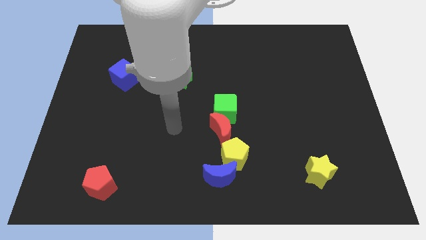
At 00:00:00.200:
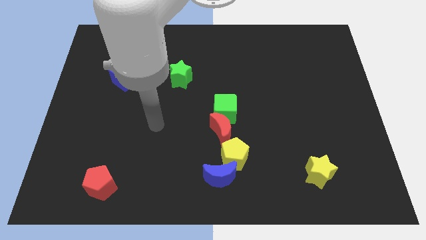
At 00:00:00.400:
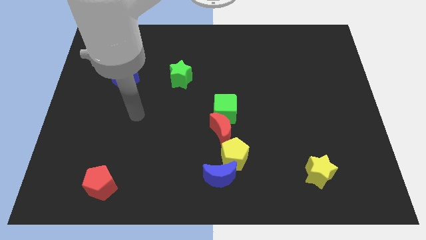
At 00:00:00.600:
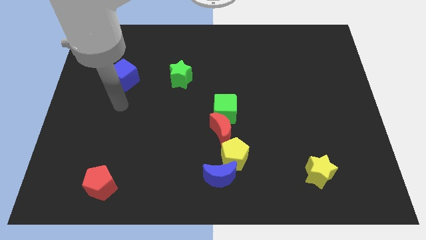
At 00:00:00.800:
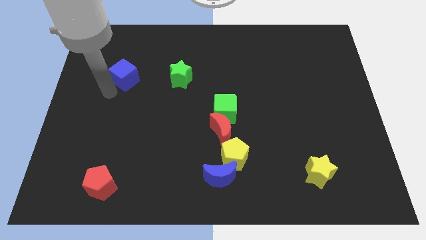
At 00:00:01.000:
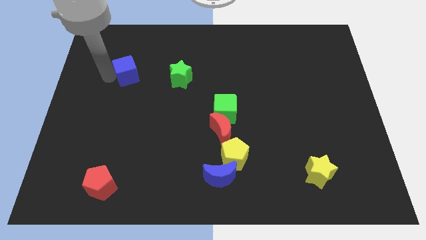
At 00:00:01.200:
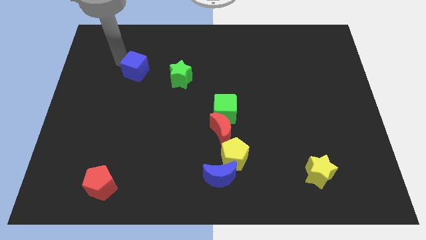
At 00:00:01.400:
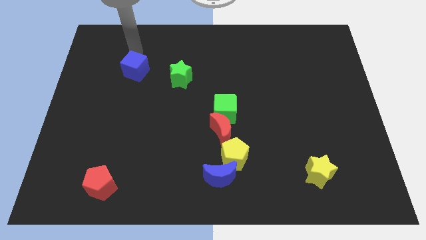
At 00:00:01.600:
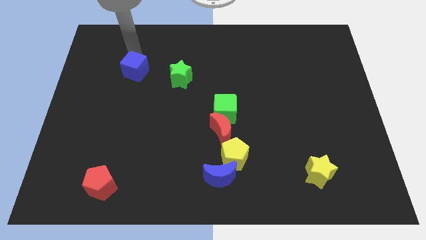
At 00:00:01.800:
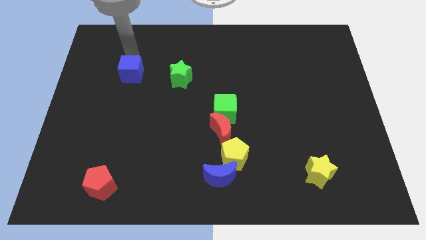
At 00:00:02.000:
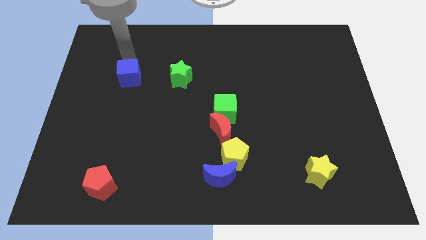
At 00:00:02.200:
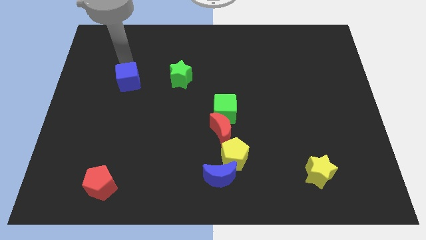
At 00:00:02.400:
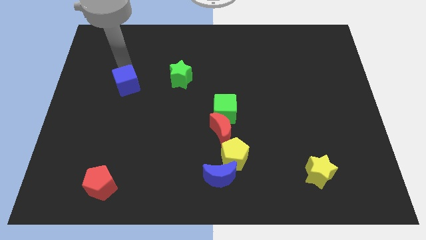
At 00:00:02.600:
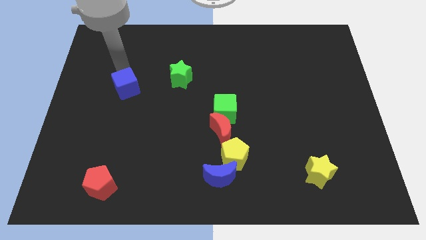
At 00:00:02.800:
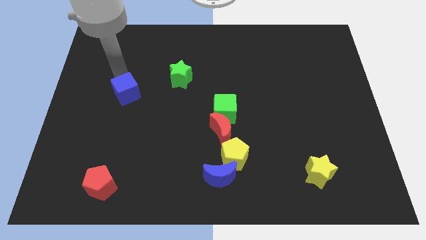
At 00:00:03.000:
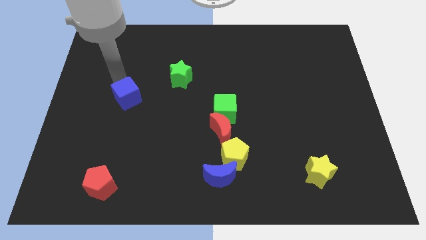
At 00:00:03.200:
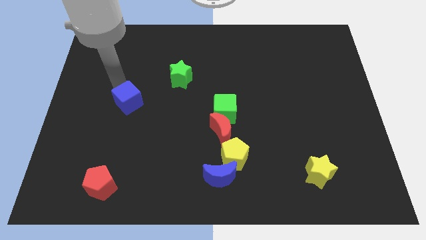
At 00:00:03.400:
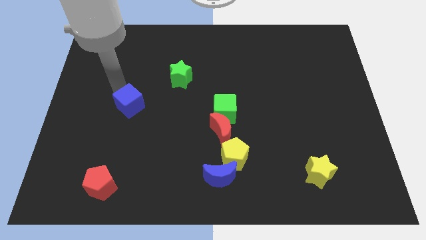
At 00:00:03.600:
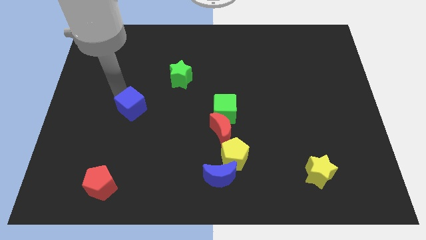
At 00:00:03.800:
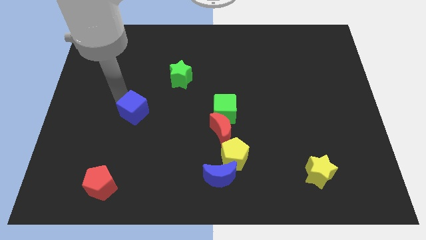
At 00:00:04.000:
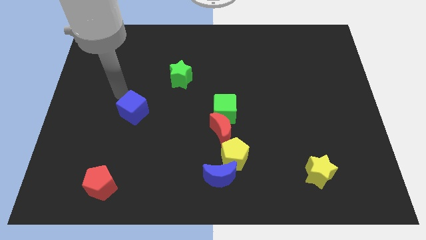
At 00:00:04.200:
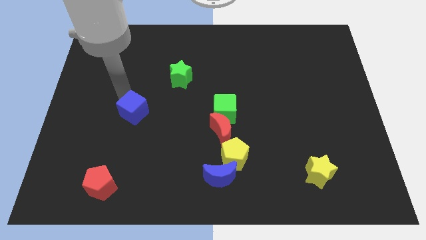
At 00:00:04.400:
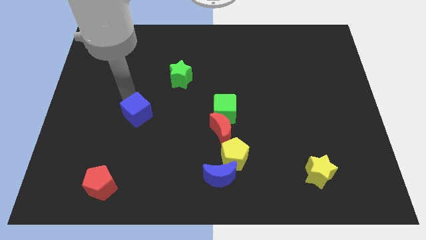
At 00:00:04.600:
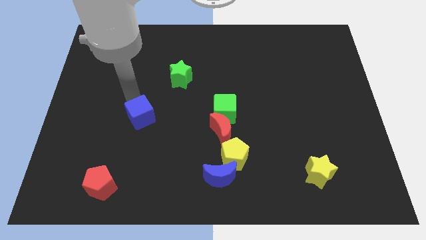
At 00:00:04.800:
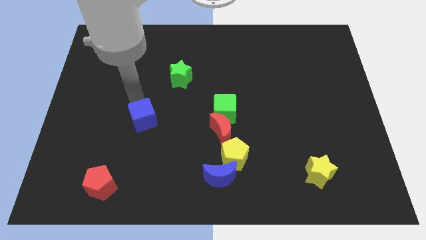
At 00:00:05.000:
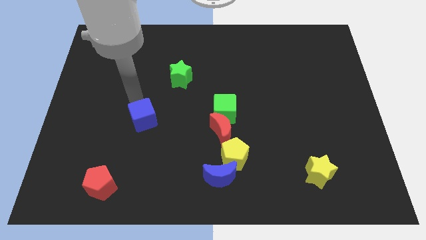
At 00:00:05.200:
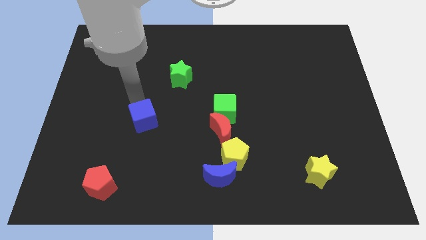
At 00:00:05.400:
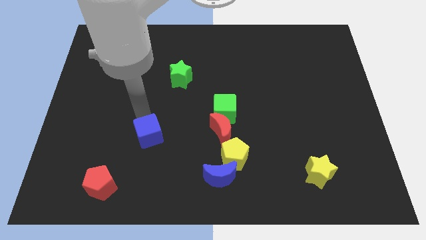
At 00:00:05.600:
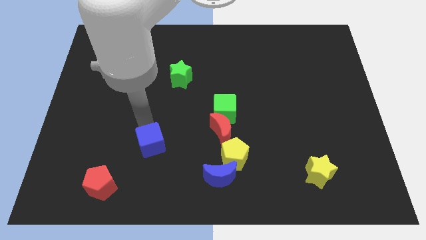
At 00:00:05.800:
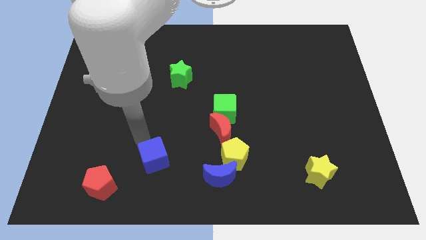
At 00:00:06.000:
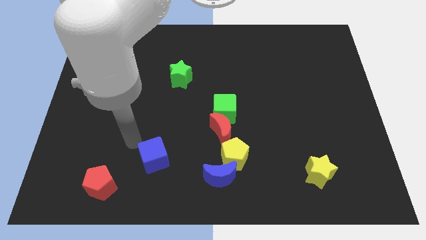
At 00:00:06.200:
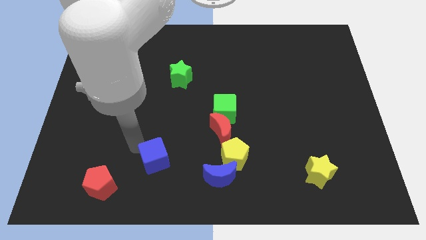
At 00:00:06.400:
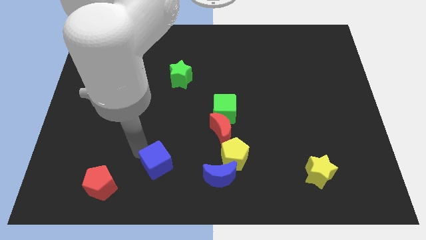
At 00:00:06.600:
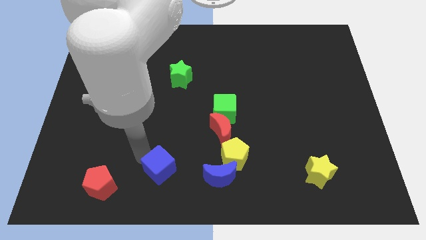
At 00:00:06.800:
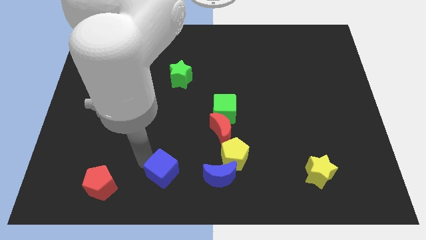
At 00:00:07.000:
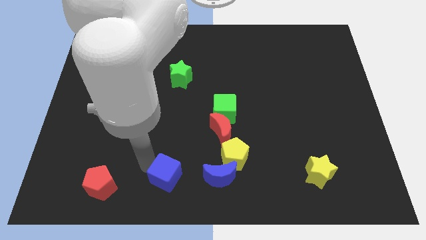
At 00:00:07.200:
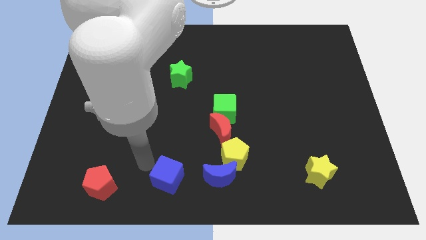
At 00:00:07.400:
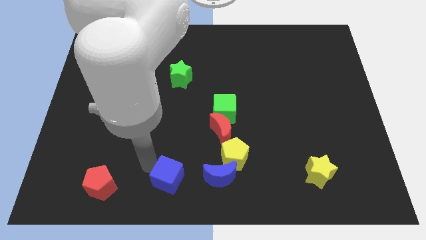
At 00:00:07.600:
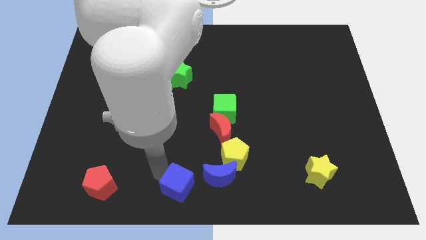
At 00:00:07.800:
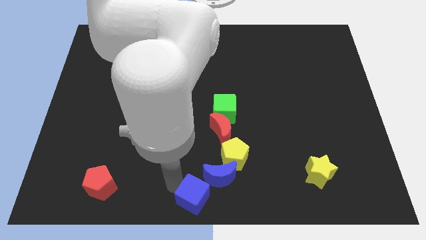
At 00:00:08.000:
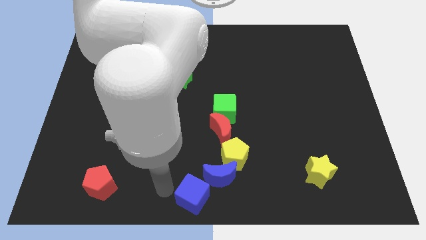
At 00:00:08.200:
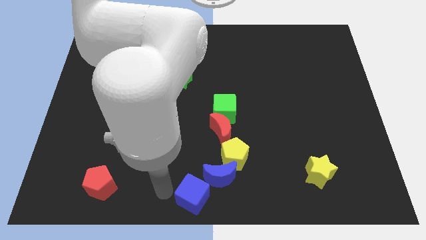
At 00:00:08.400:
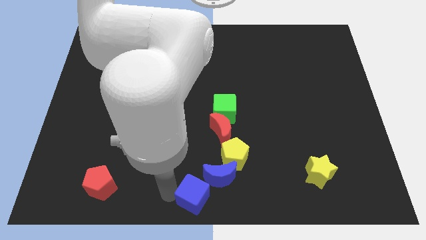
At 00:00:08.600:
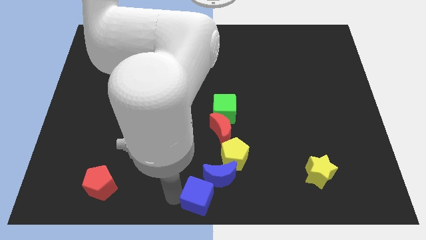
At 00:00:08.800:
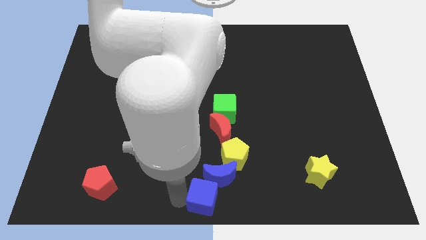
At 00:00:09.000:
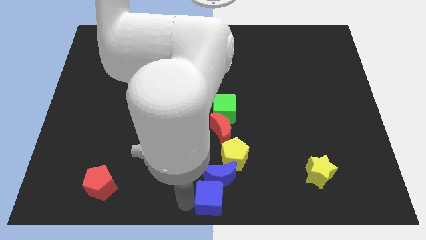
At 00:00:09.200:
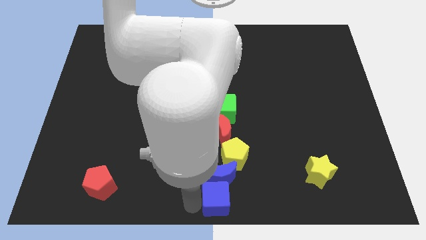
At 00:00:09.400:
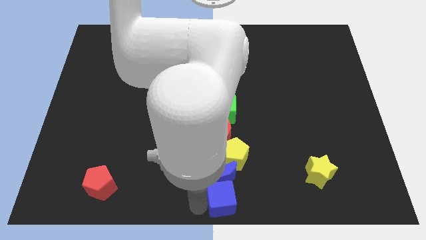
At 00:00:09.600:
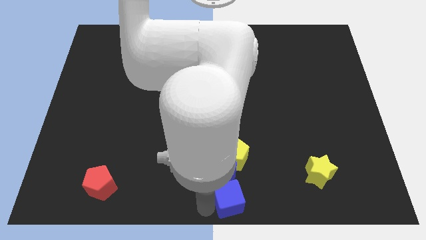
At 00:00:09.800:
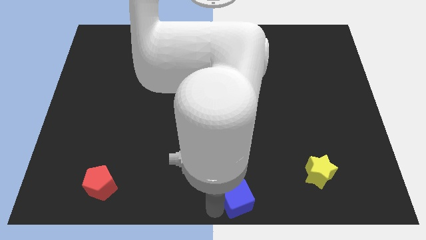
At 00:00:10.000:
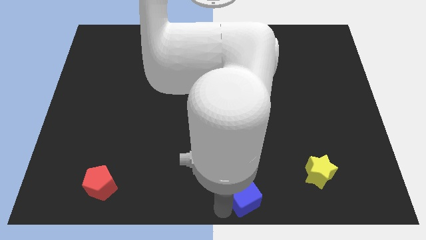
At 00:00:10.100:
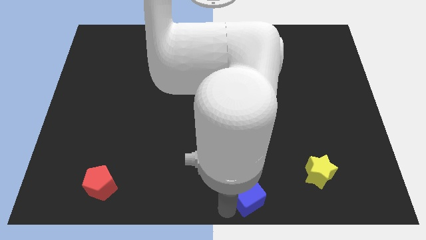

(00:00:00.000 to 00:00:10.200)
slide the blue cube to the bottom right of the yellow pentagon

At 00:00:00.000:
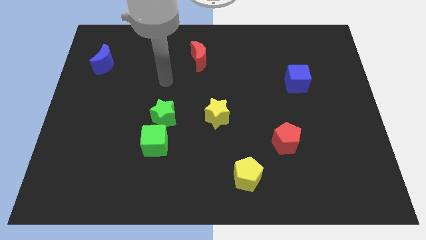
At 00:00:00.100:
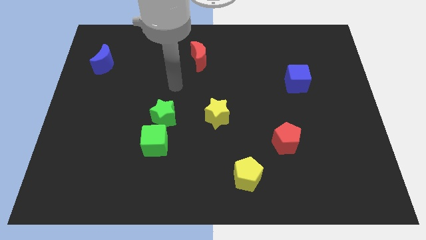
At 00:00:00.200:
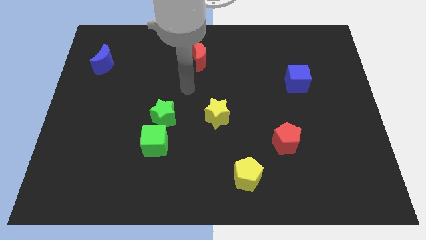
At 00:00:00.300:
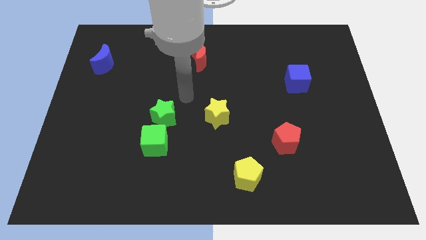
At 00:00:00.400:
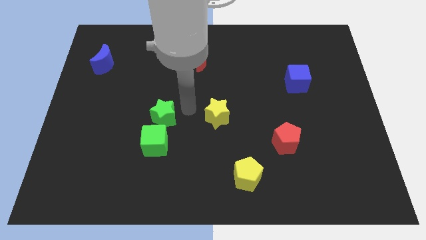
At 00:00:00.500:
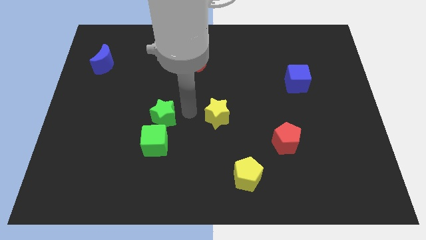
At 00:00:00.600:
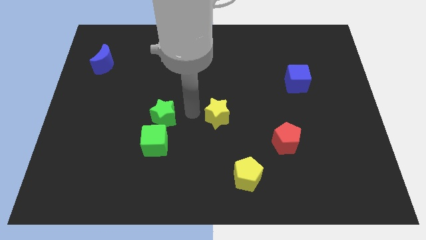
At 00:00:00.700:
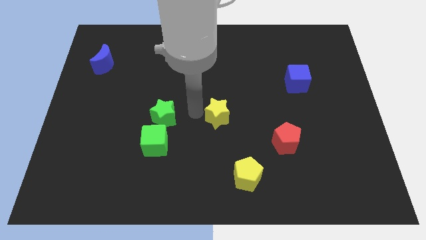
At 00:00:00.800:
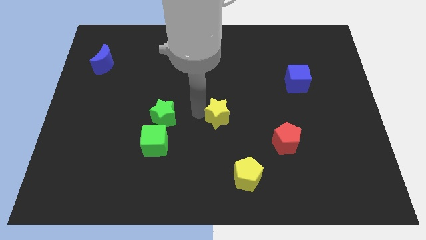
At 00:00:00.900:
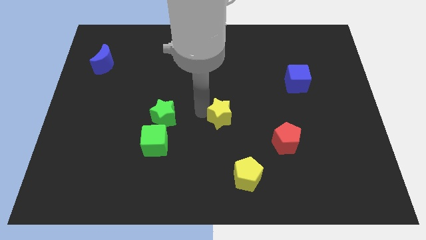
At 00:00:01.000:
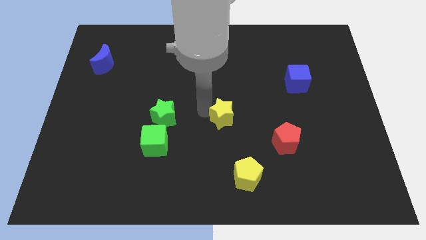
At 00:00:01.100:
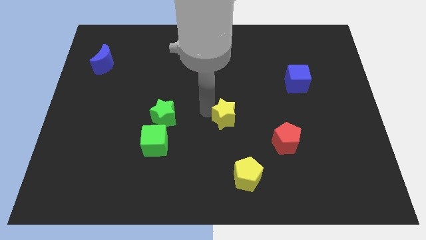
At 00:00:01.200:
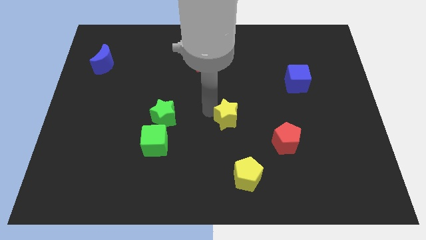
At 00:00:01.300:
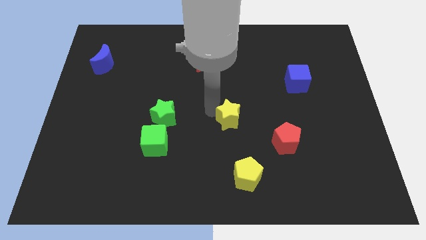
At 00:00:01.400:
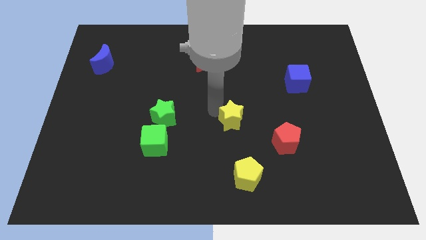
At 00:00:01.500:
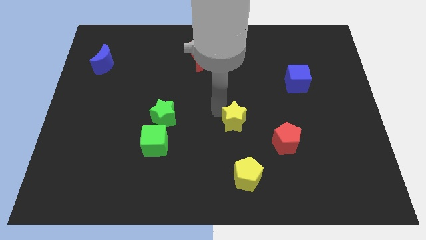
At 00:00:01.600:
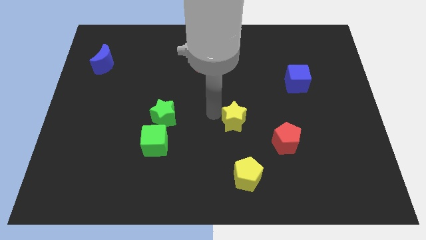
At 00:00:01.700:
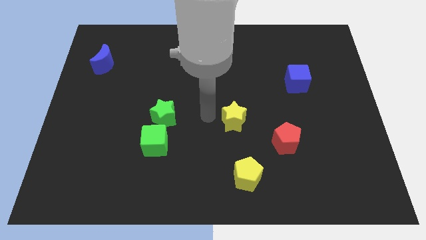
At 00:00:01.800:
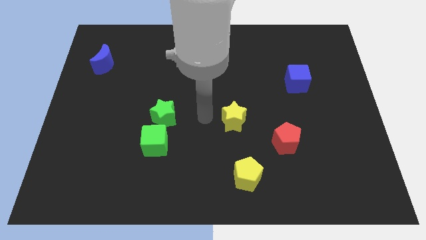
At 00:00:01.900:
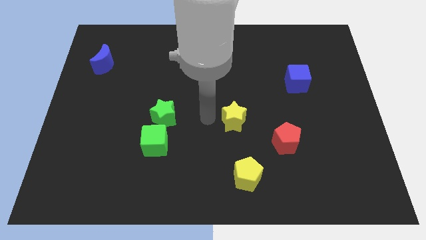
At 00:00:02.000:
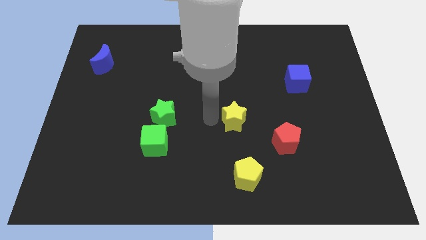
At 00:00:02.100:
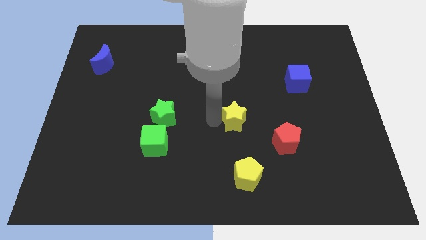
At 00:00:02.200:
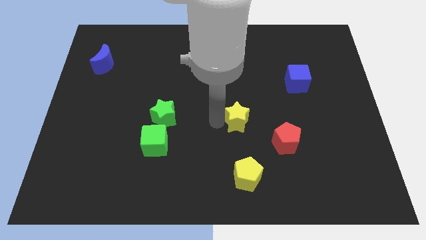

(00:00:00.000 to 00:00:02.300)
slide the yellow star to the top left of the red pentagon
